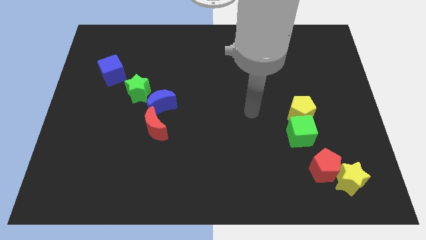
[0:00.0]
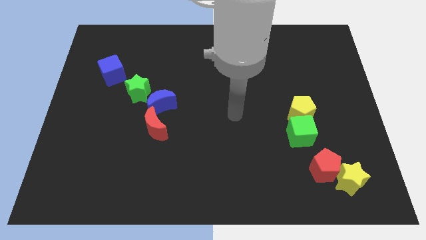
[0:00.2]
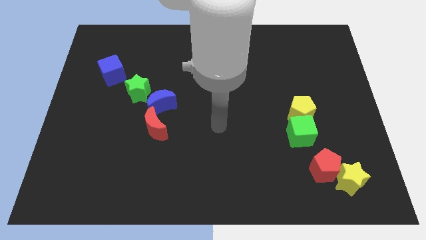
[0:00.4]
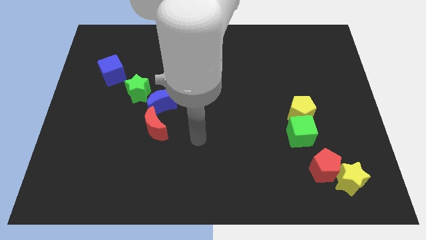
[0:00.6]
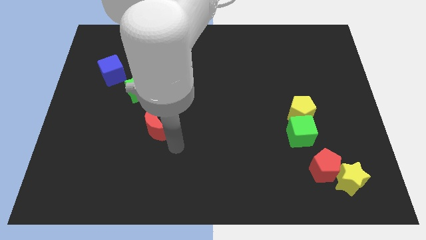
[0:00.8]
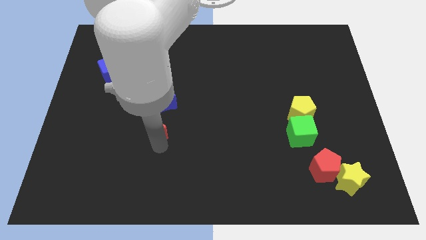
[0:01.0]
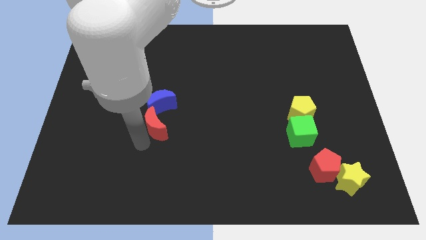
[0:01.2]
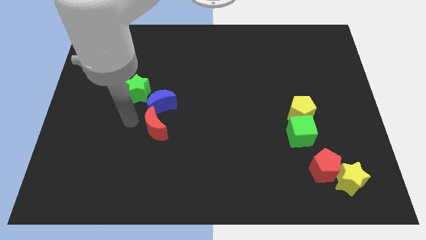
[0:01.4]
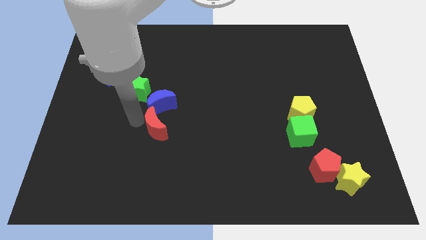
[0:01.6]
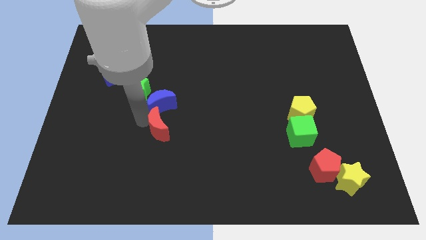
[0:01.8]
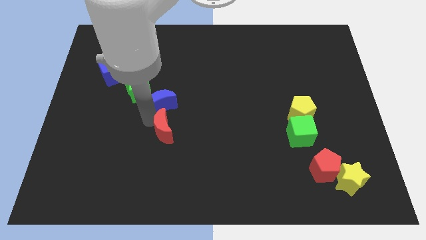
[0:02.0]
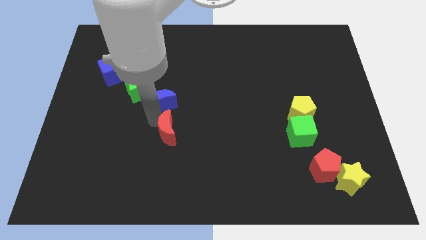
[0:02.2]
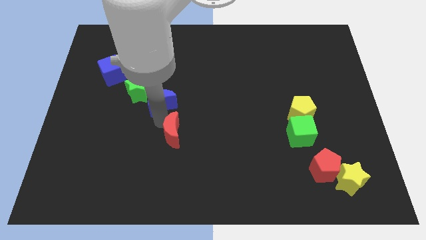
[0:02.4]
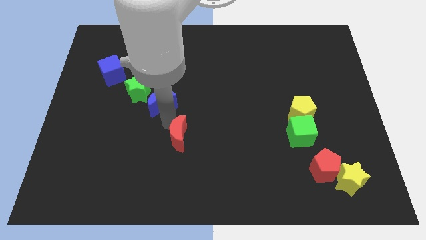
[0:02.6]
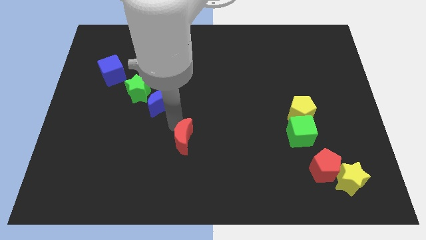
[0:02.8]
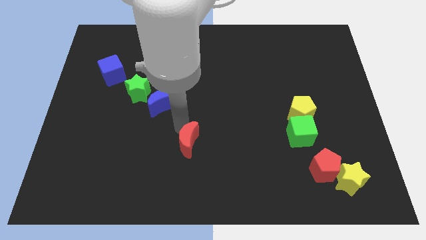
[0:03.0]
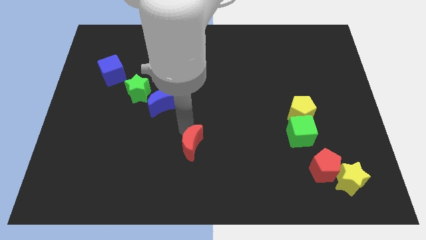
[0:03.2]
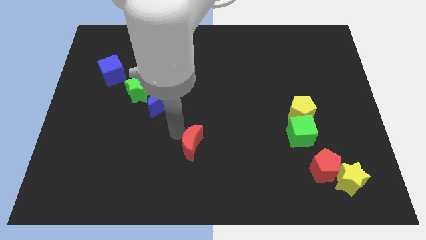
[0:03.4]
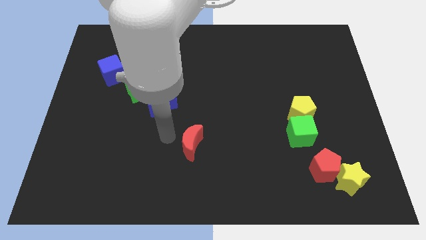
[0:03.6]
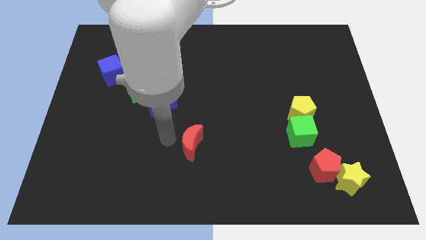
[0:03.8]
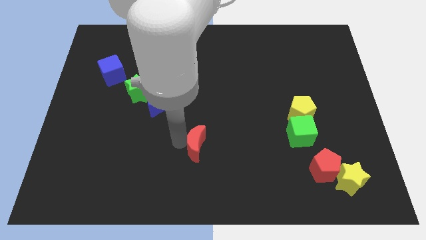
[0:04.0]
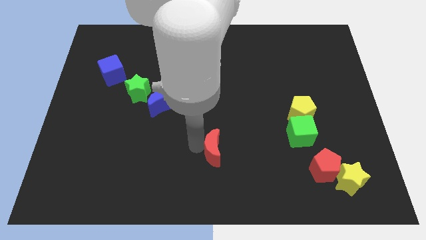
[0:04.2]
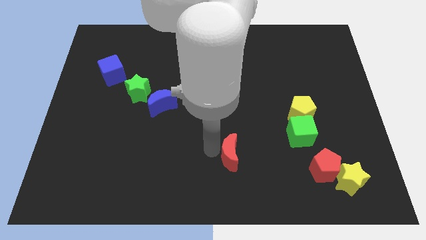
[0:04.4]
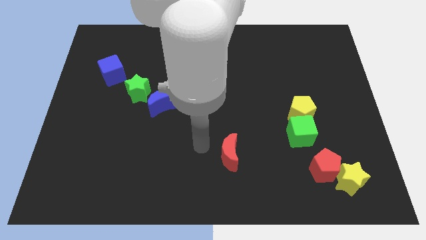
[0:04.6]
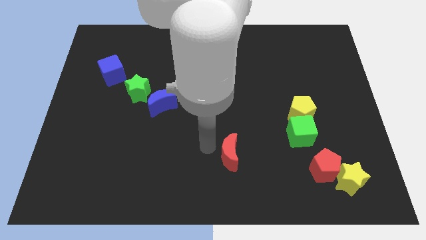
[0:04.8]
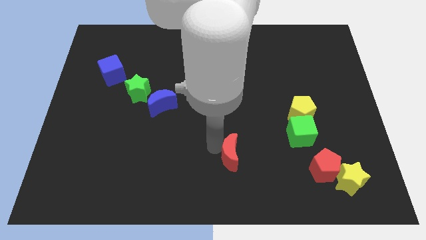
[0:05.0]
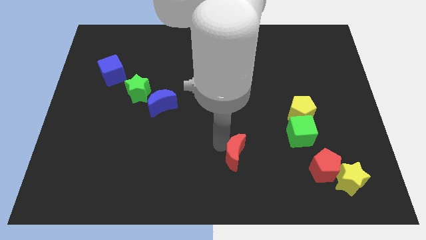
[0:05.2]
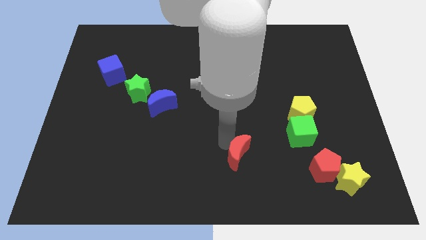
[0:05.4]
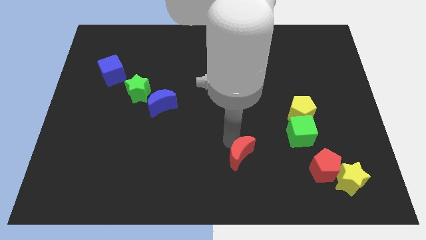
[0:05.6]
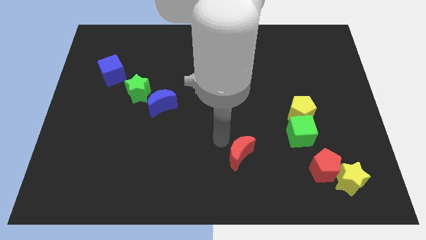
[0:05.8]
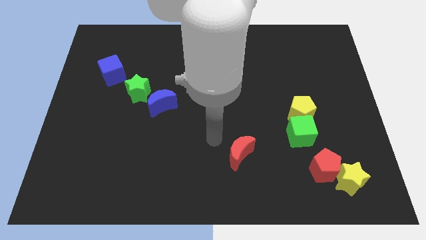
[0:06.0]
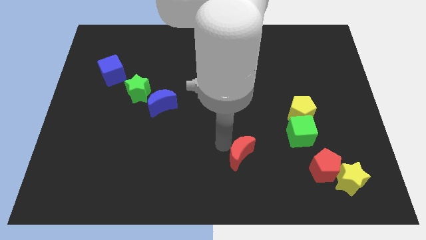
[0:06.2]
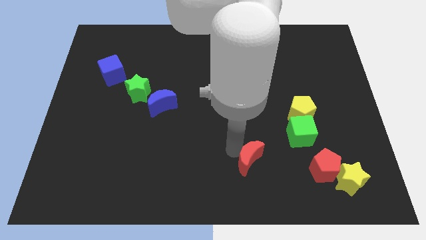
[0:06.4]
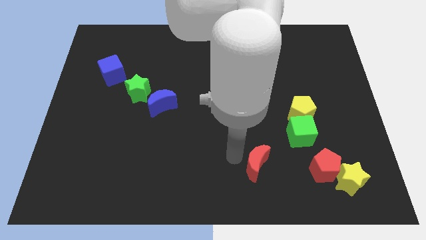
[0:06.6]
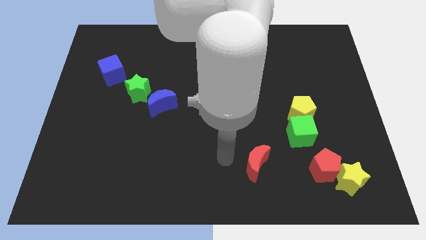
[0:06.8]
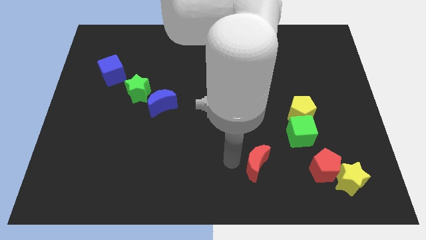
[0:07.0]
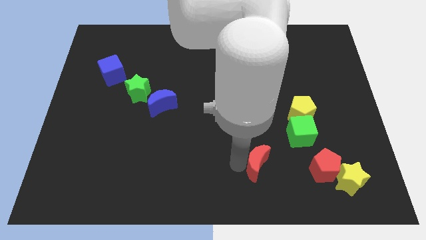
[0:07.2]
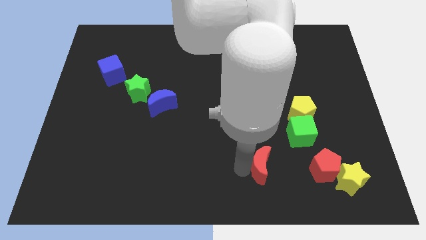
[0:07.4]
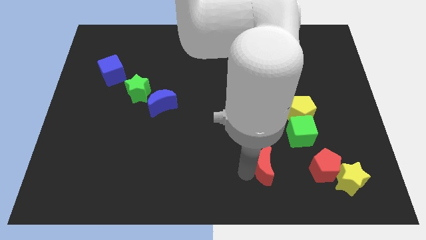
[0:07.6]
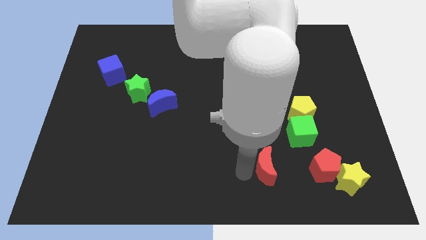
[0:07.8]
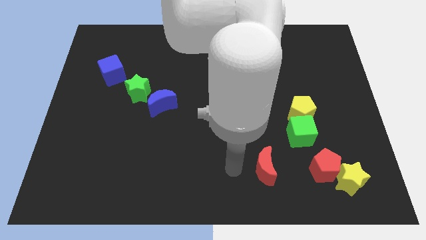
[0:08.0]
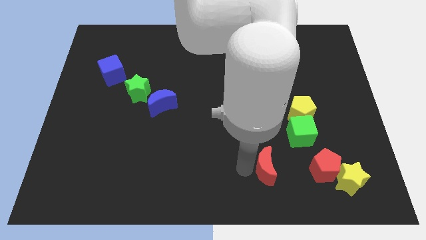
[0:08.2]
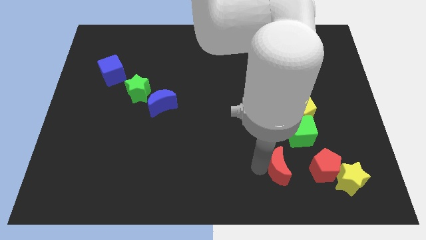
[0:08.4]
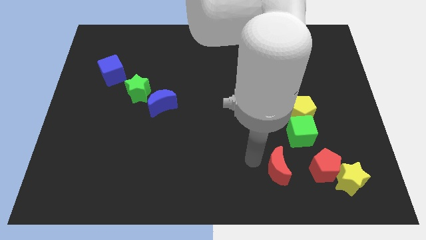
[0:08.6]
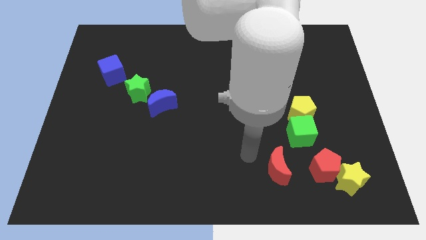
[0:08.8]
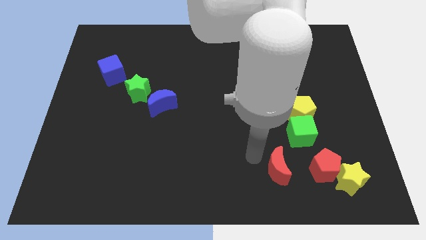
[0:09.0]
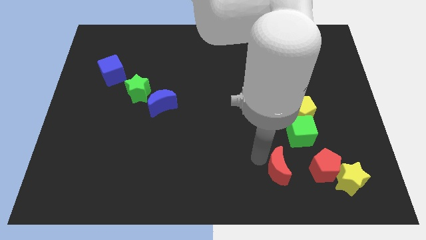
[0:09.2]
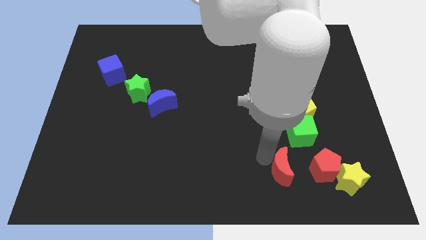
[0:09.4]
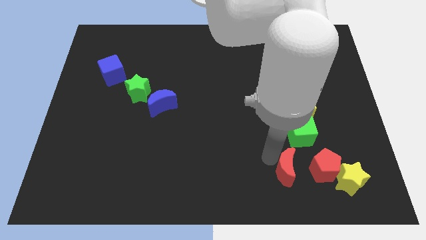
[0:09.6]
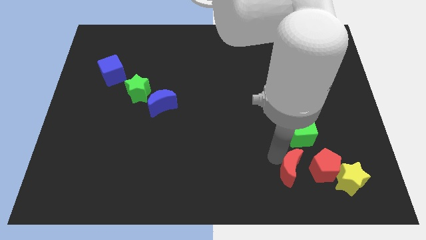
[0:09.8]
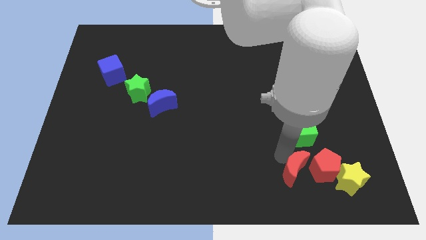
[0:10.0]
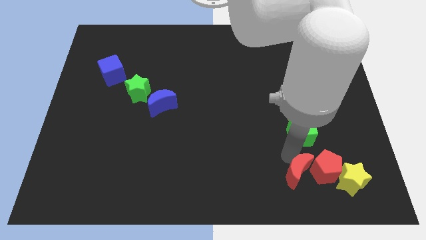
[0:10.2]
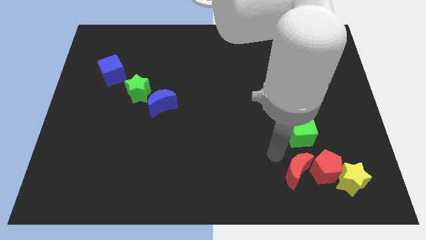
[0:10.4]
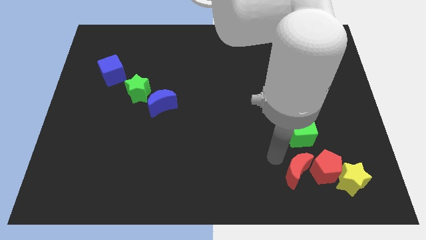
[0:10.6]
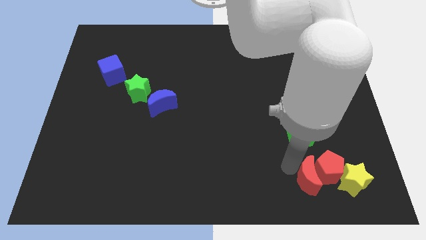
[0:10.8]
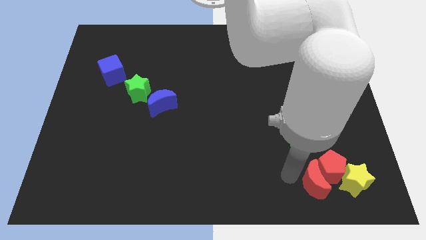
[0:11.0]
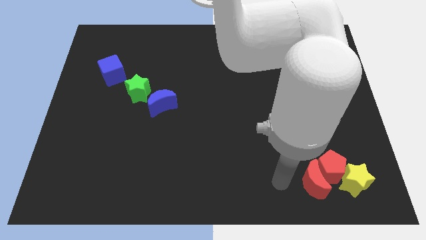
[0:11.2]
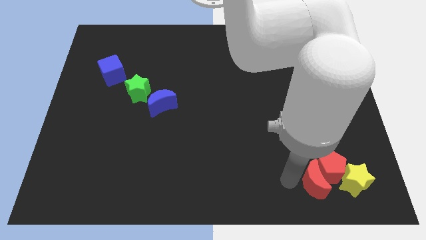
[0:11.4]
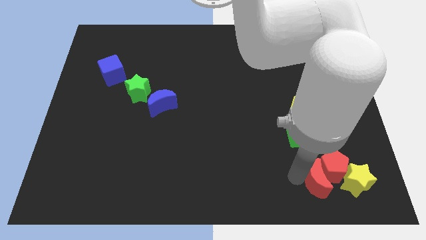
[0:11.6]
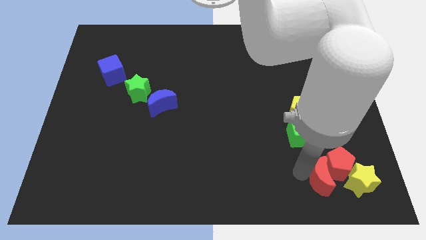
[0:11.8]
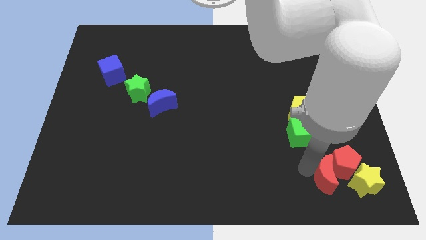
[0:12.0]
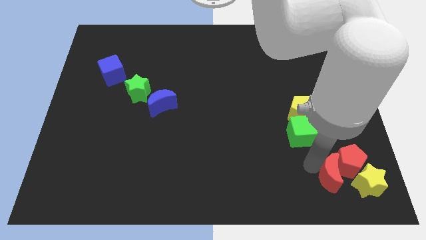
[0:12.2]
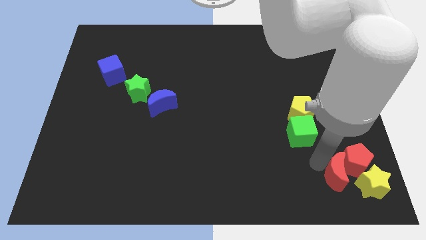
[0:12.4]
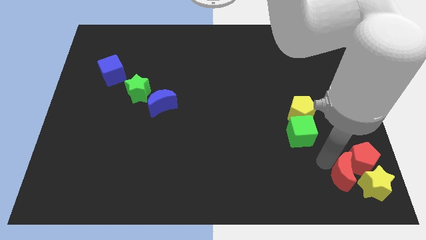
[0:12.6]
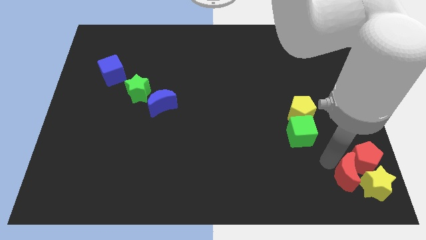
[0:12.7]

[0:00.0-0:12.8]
put the red moon towards the yellow star

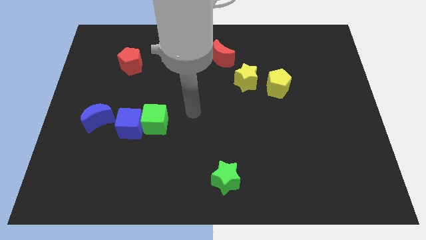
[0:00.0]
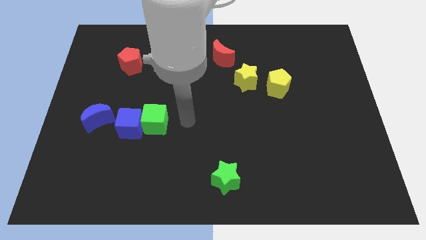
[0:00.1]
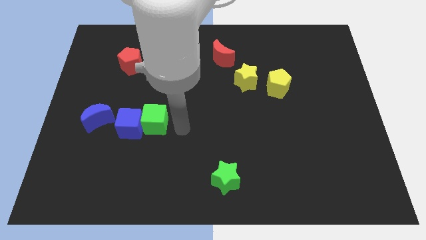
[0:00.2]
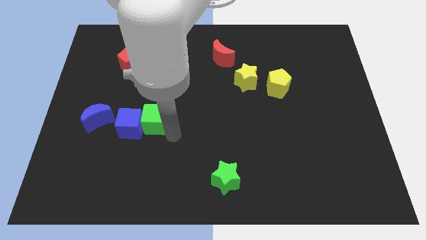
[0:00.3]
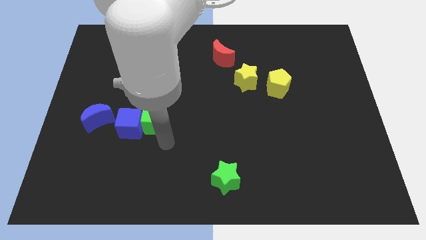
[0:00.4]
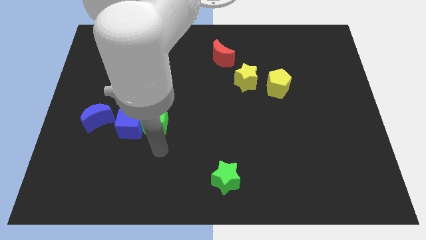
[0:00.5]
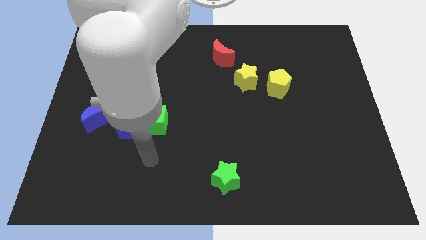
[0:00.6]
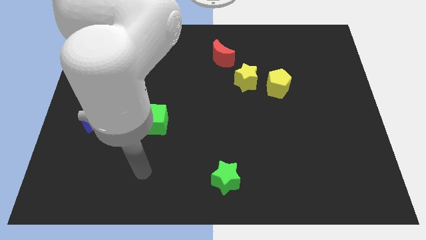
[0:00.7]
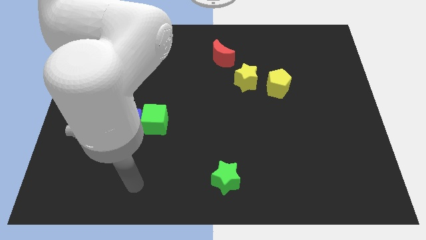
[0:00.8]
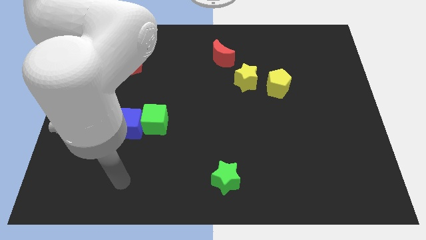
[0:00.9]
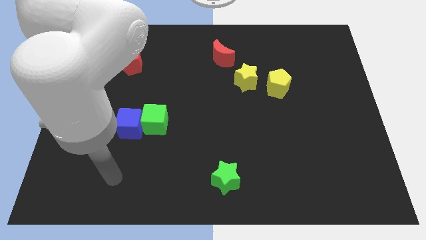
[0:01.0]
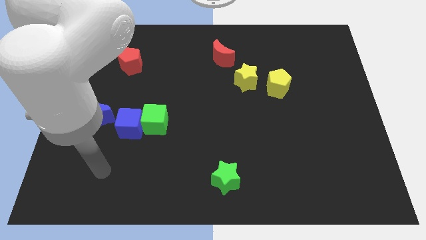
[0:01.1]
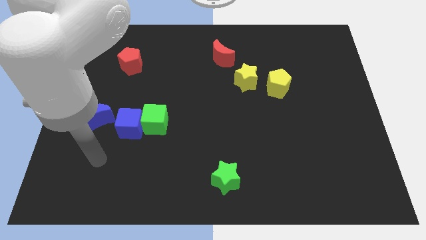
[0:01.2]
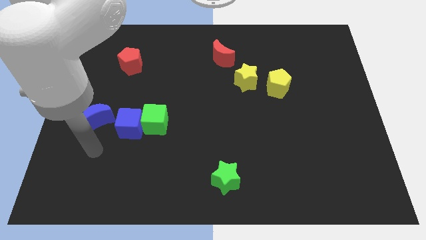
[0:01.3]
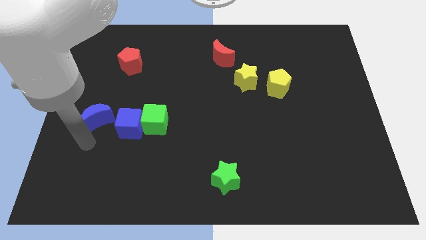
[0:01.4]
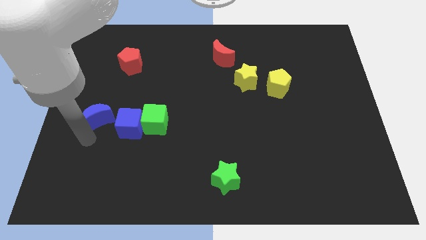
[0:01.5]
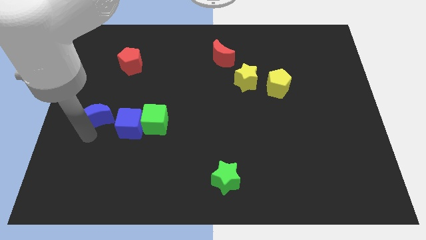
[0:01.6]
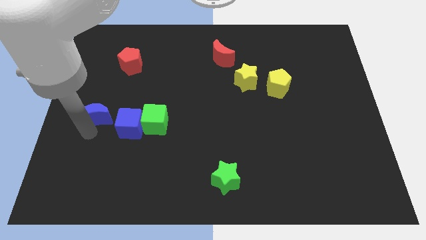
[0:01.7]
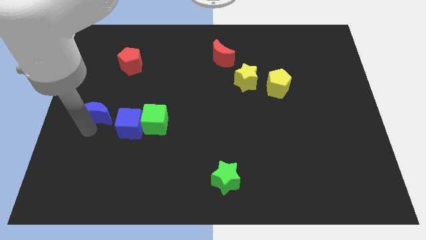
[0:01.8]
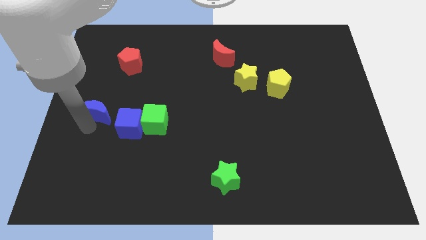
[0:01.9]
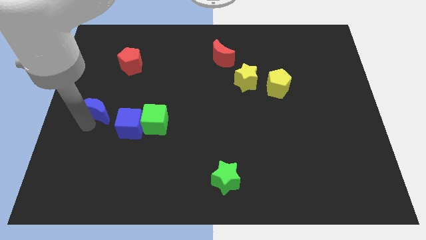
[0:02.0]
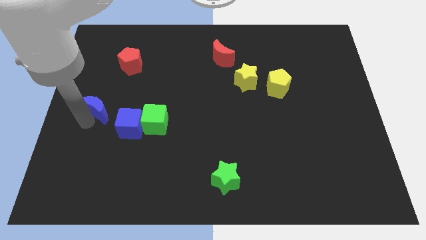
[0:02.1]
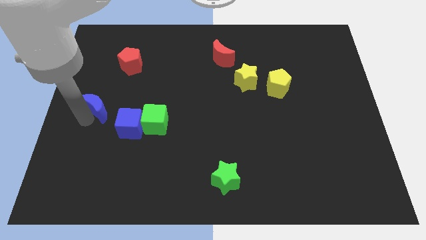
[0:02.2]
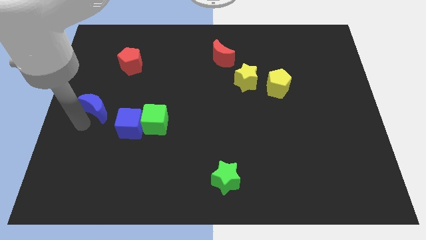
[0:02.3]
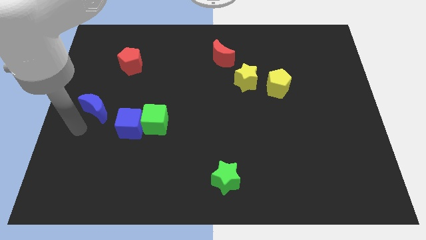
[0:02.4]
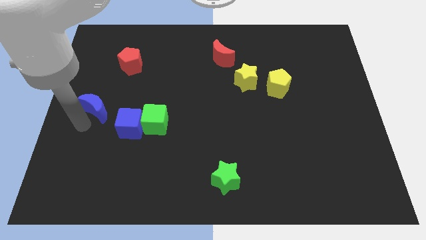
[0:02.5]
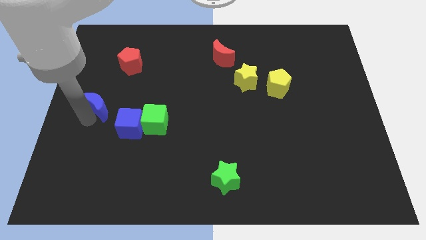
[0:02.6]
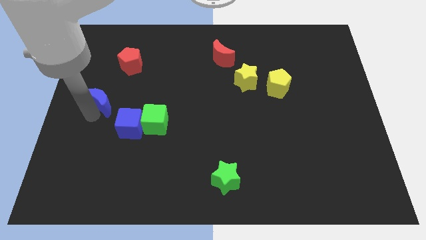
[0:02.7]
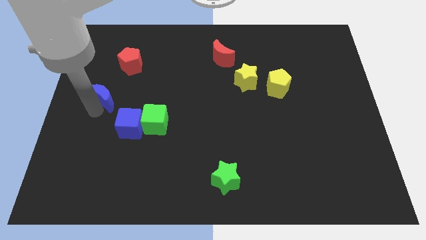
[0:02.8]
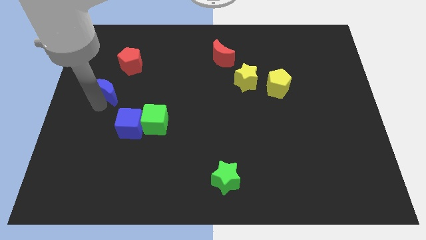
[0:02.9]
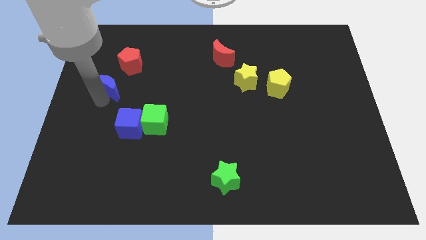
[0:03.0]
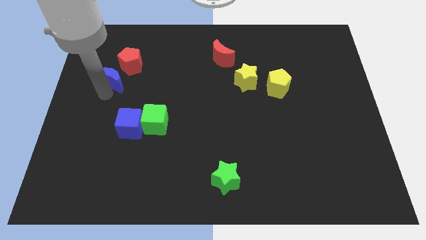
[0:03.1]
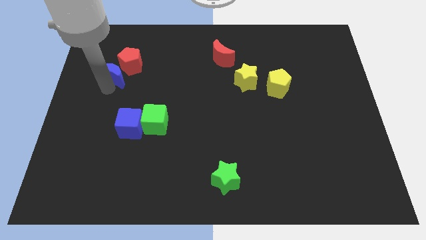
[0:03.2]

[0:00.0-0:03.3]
put the blue moon next to the red pentagon
